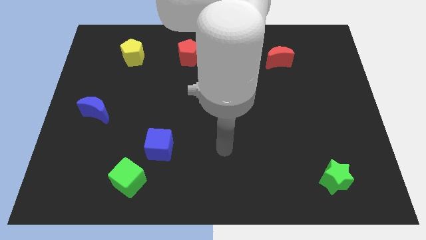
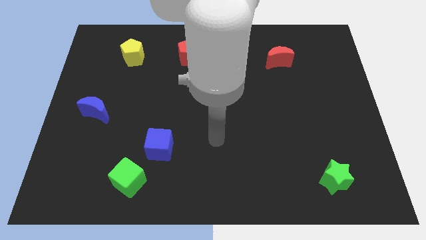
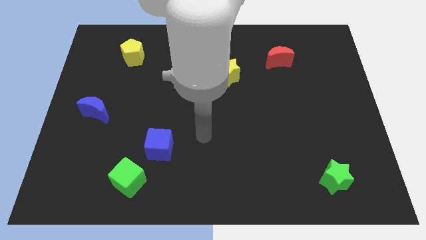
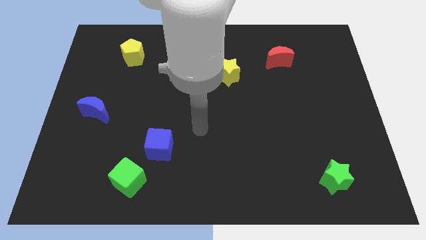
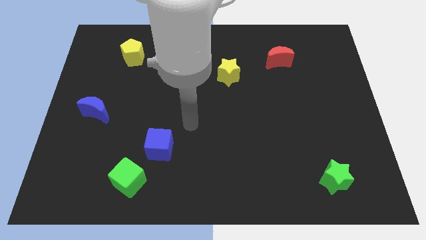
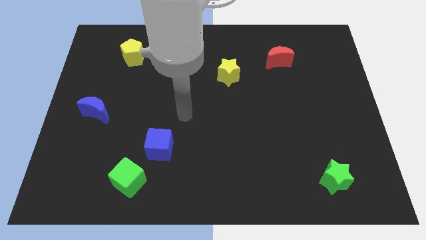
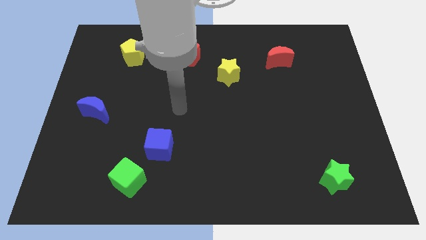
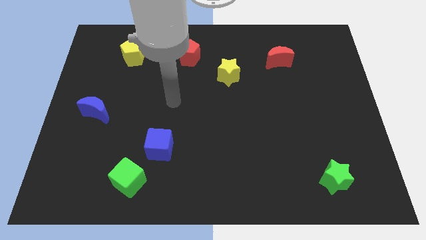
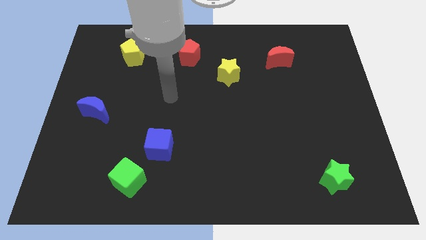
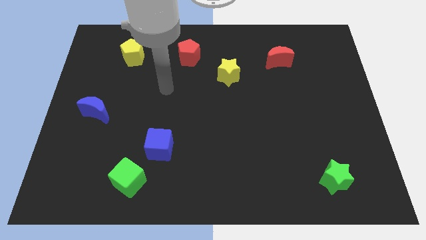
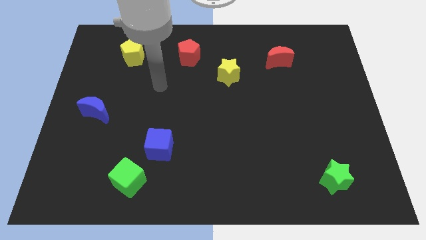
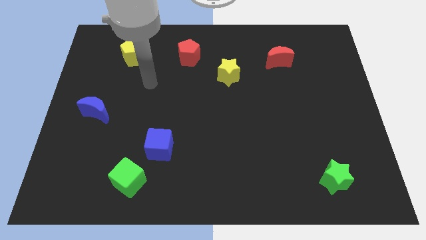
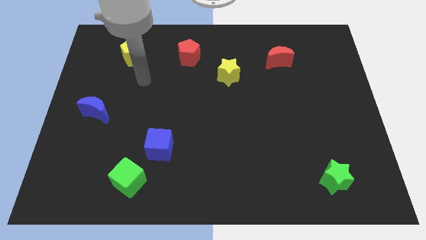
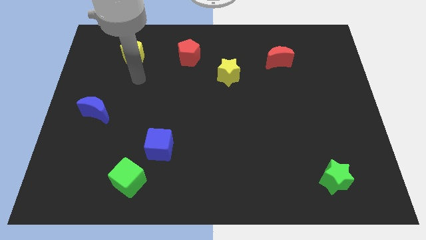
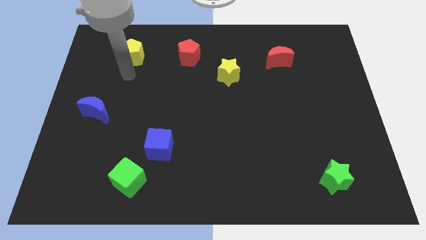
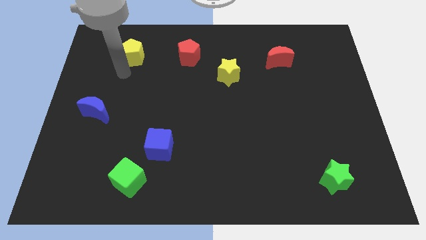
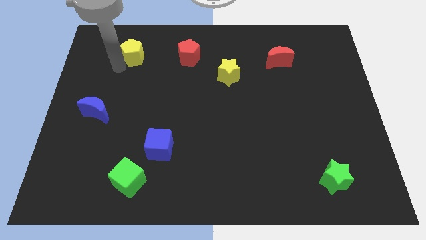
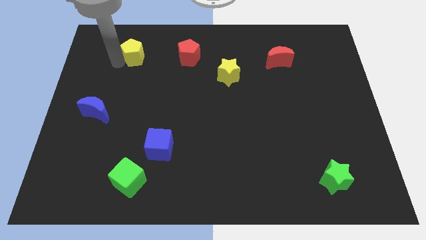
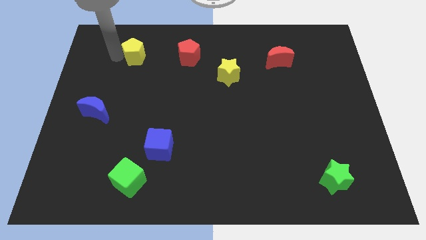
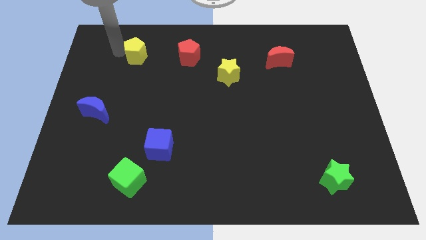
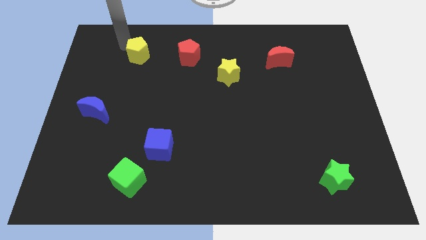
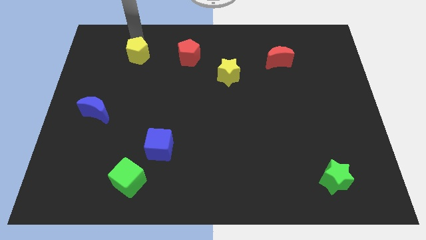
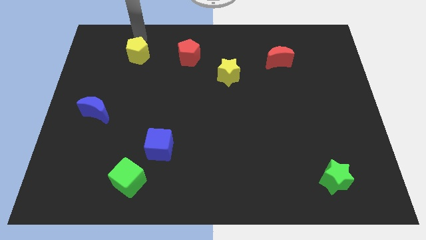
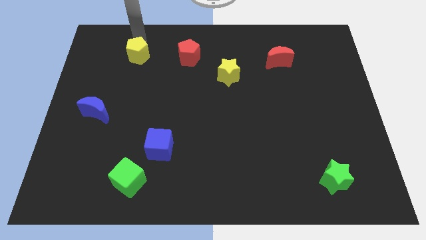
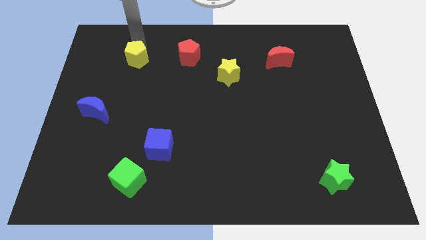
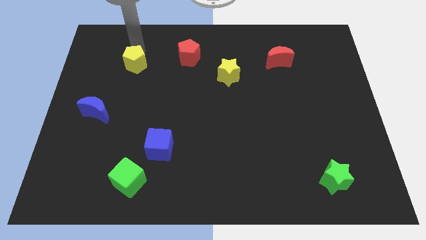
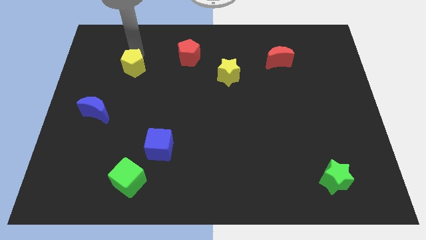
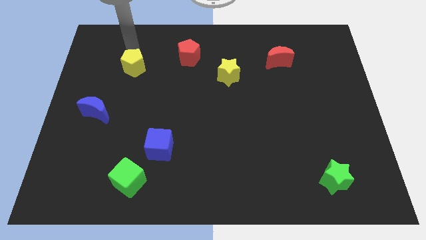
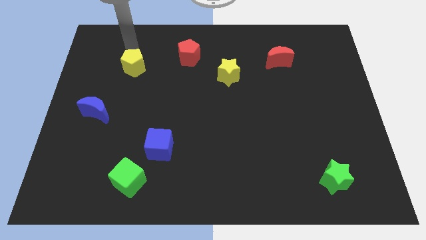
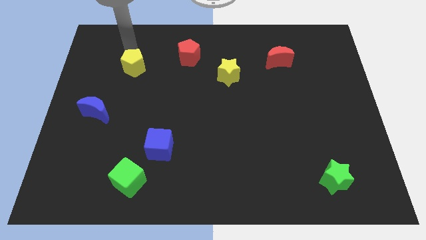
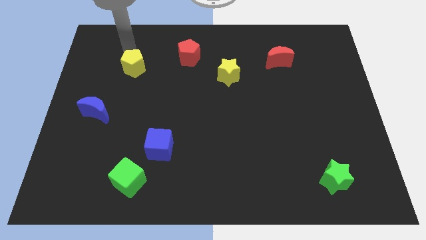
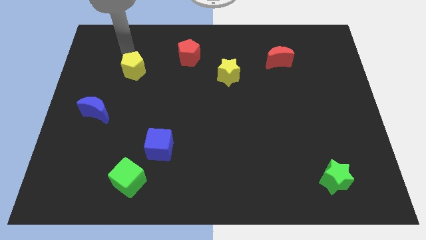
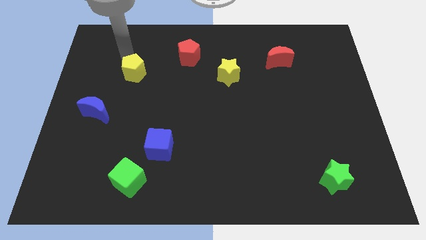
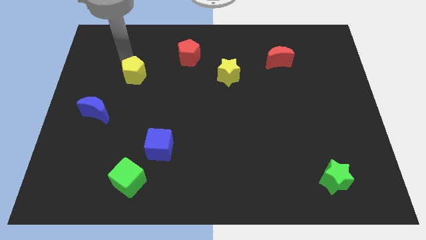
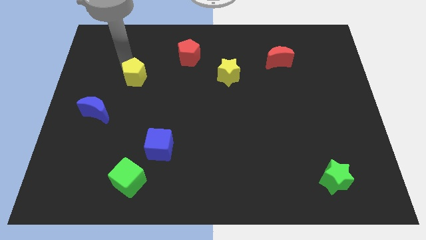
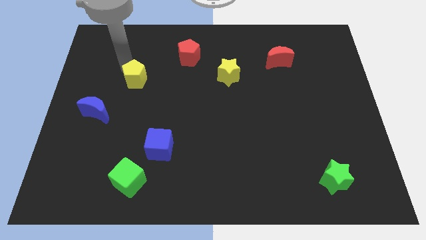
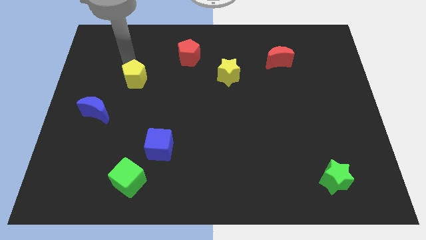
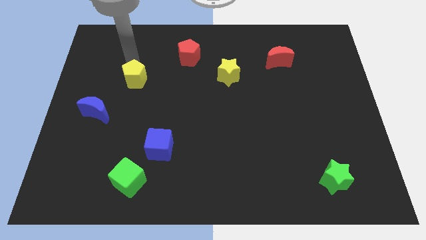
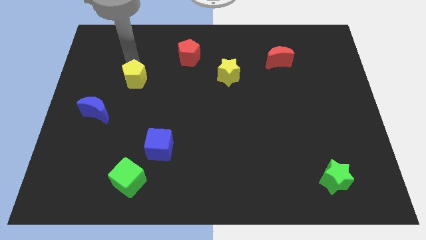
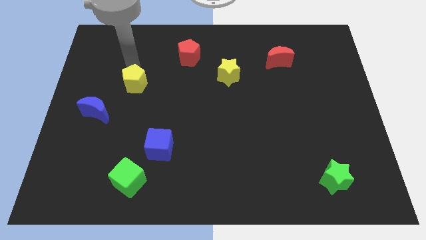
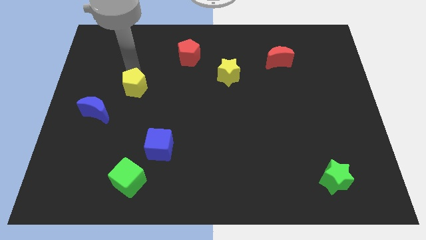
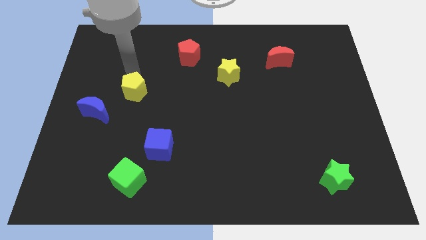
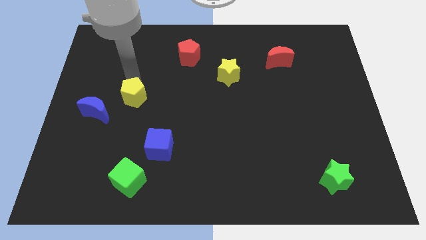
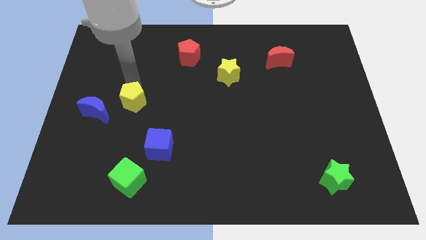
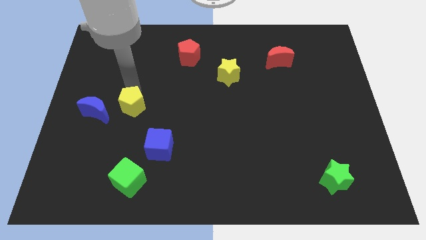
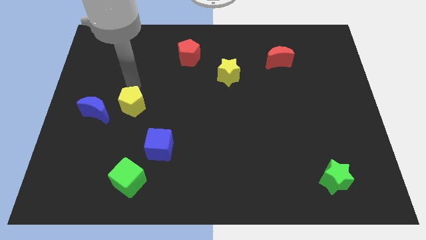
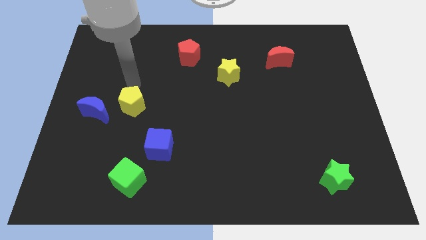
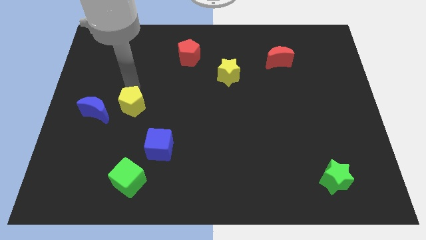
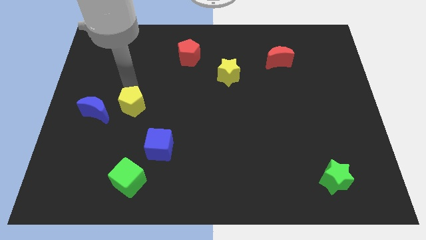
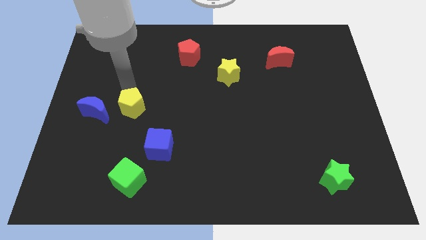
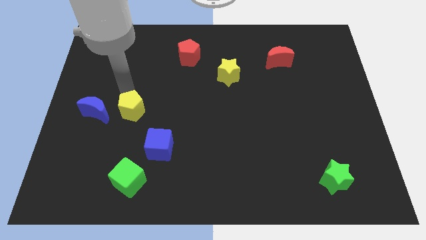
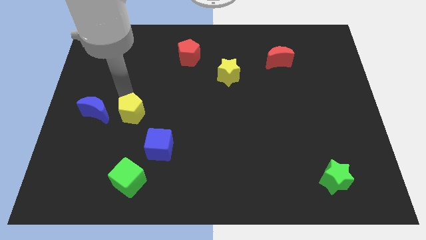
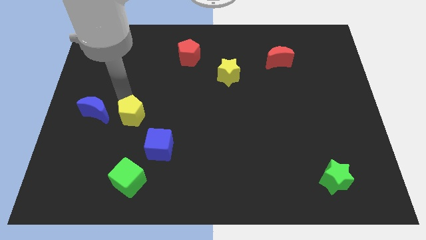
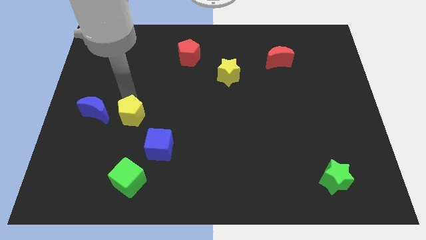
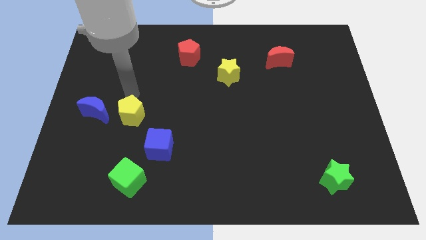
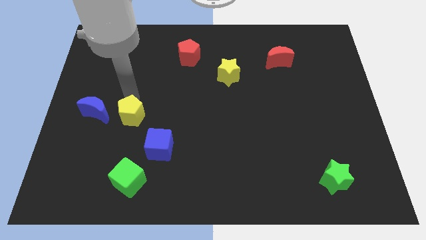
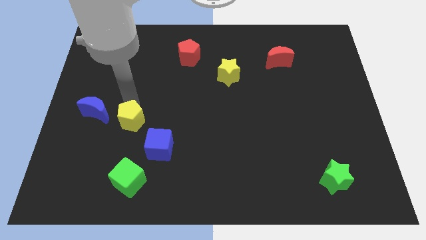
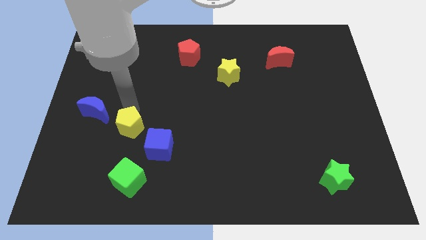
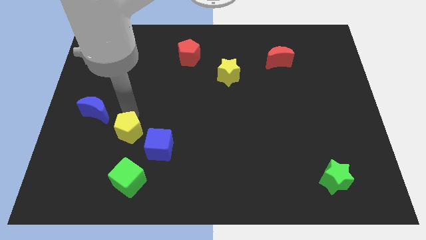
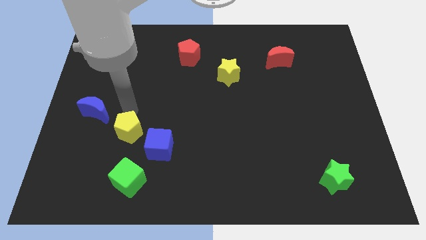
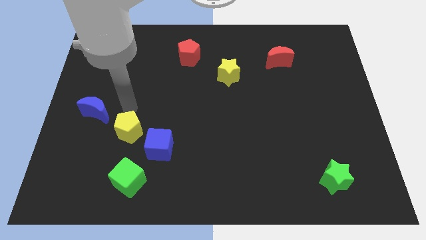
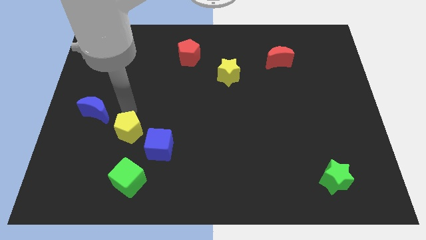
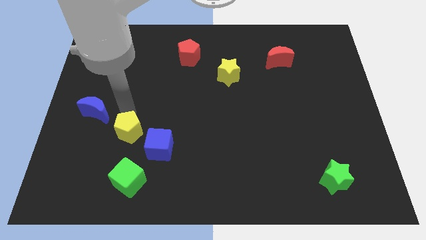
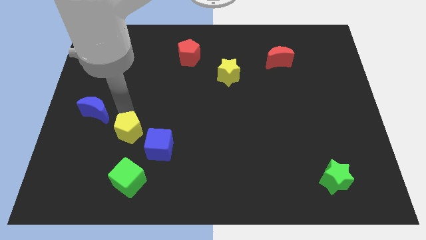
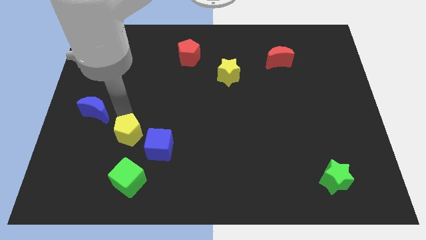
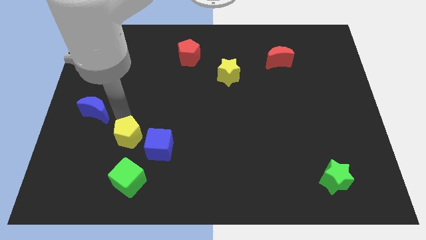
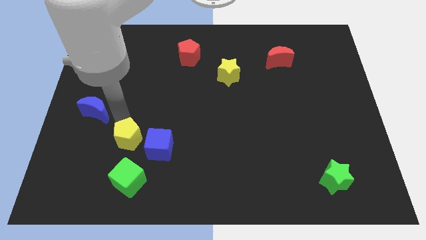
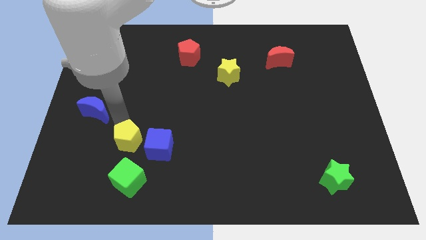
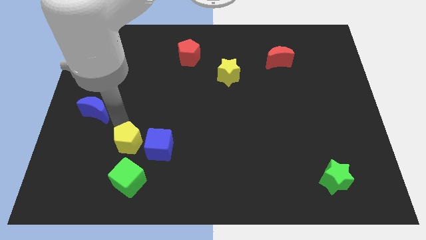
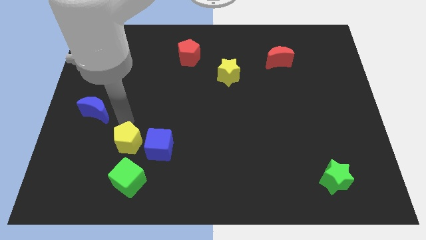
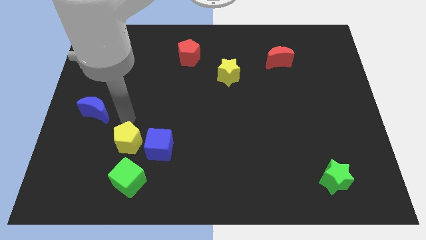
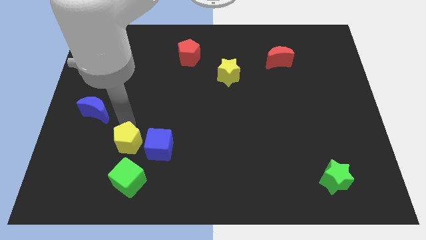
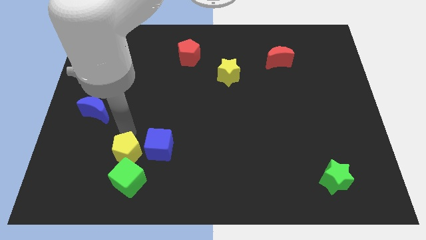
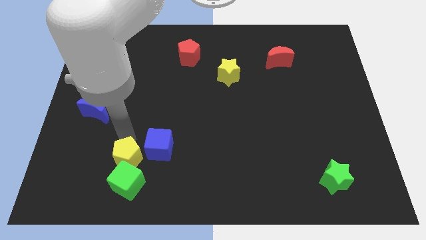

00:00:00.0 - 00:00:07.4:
put the yellow pentagon towards the green cube

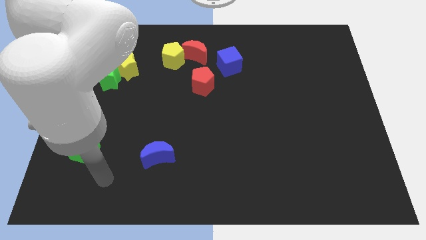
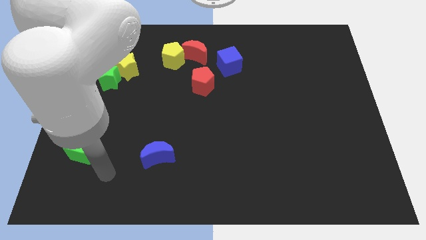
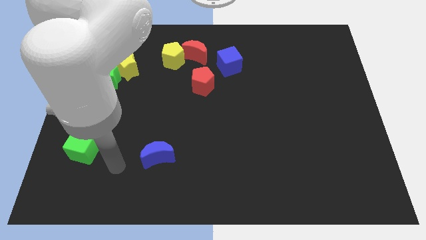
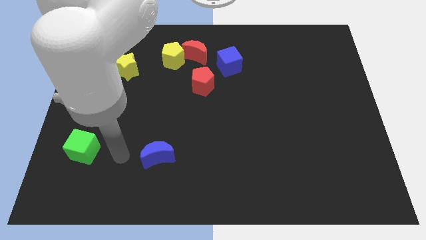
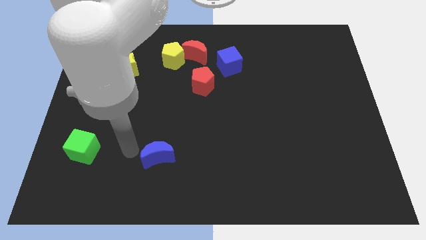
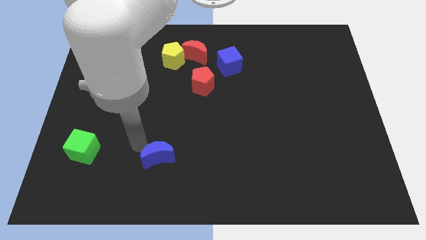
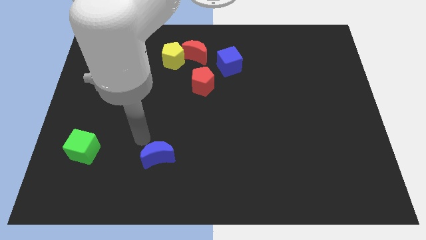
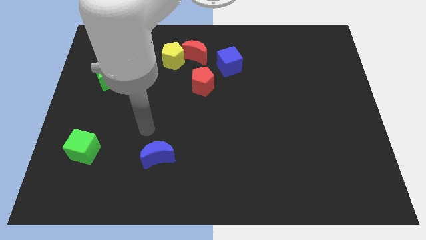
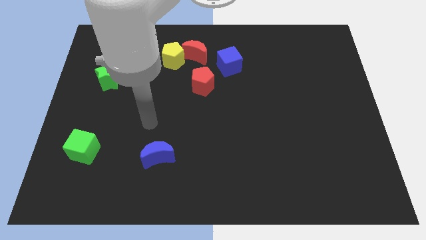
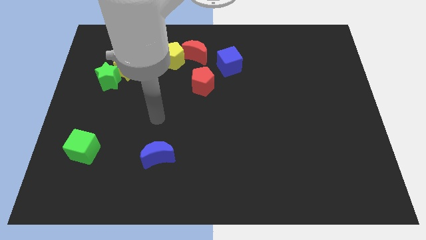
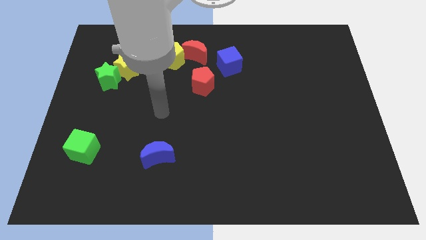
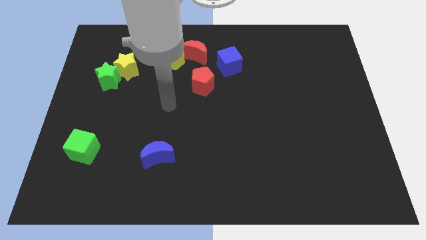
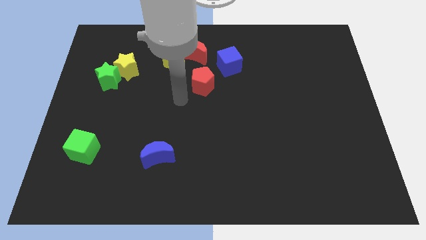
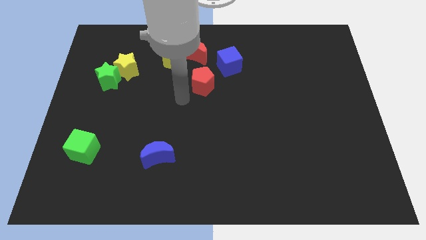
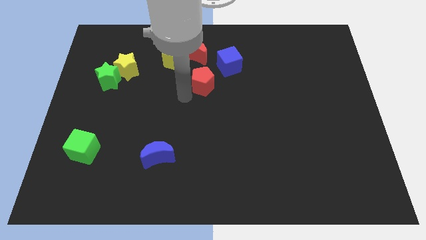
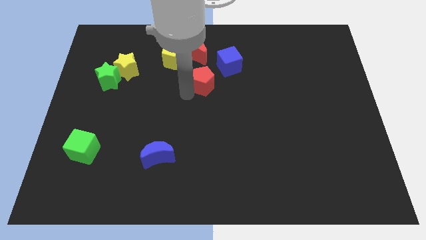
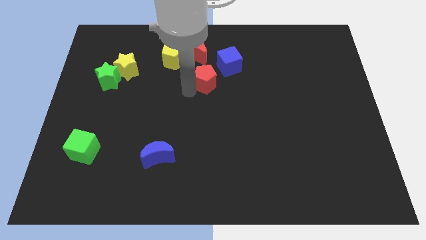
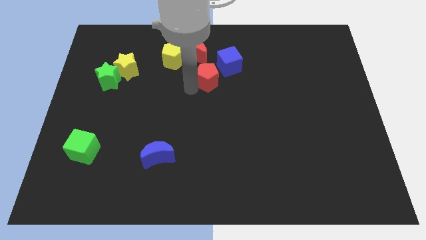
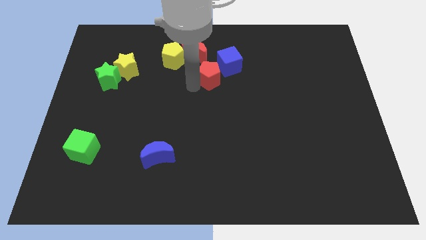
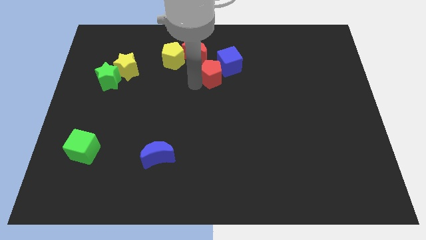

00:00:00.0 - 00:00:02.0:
move the red pentagon next to the blue cube
